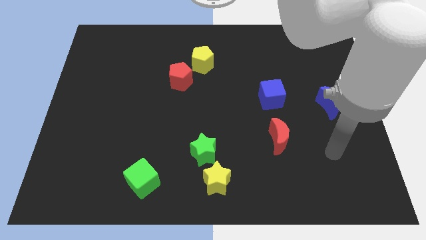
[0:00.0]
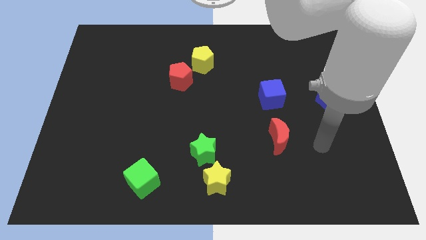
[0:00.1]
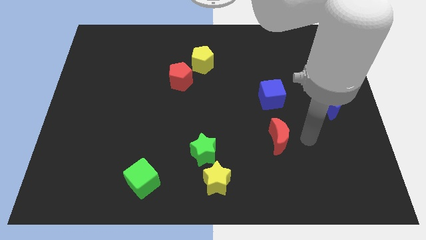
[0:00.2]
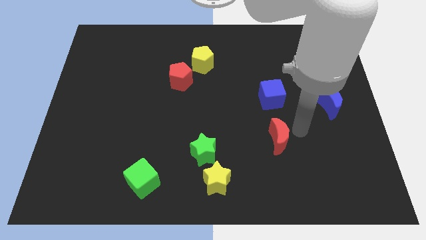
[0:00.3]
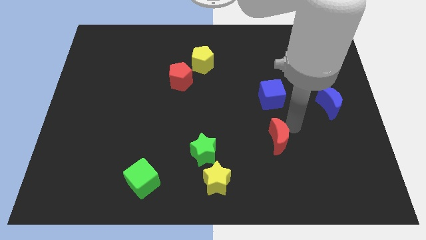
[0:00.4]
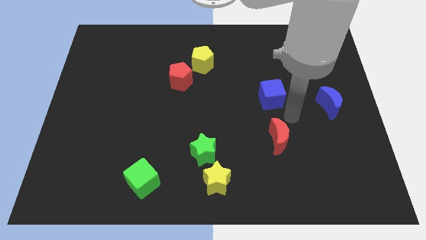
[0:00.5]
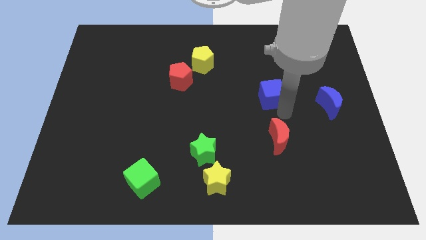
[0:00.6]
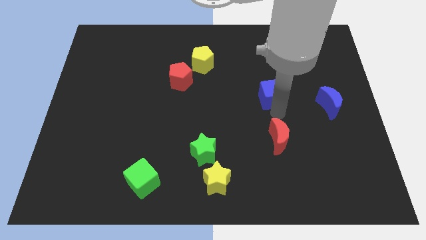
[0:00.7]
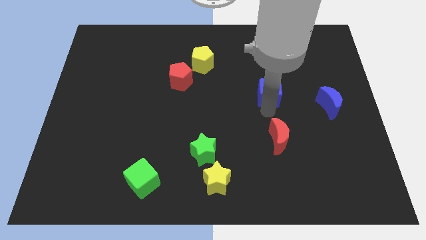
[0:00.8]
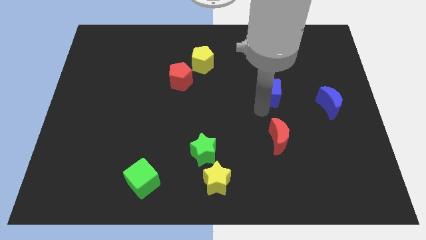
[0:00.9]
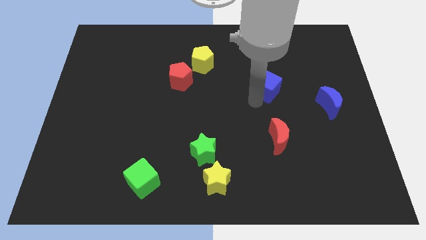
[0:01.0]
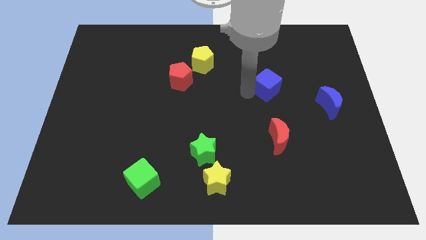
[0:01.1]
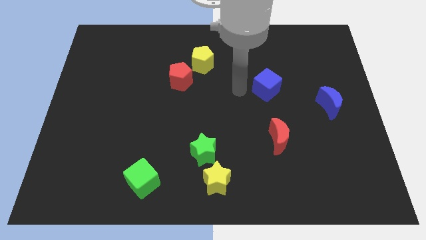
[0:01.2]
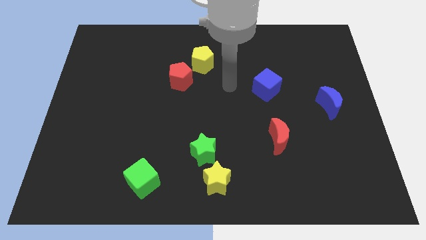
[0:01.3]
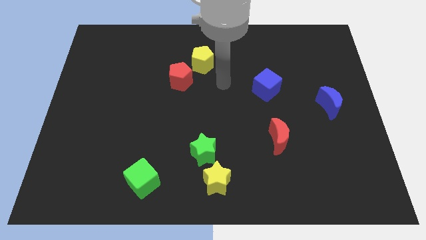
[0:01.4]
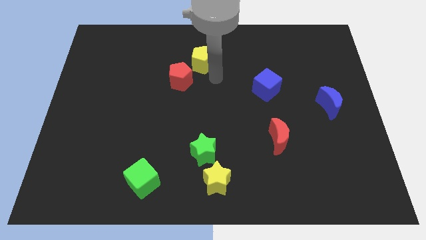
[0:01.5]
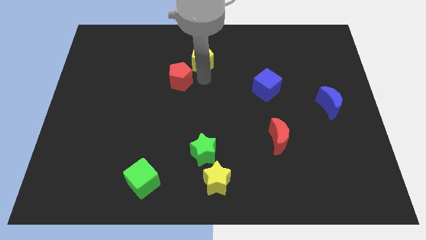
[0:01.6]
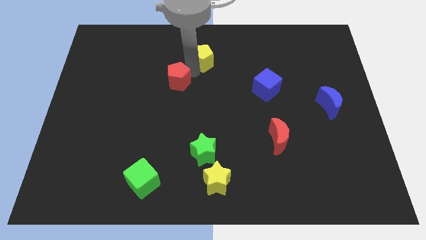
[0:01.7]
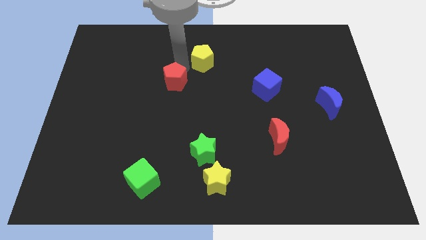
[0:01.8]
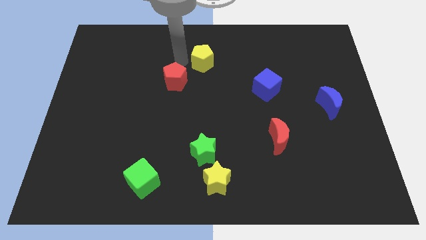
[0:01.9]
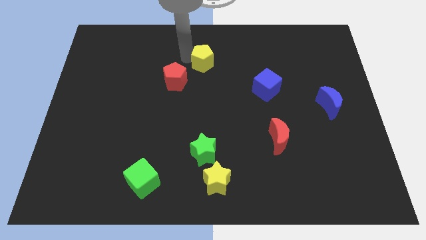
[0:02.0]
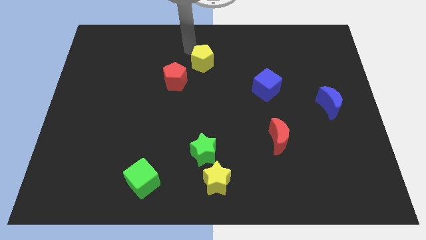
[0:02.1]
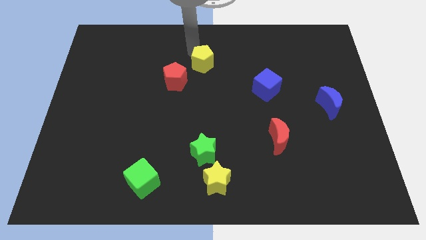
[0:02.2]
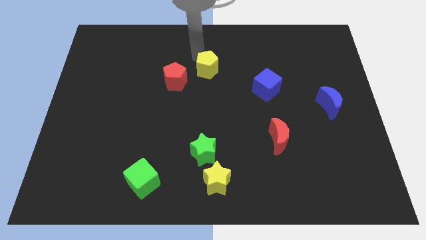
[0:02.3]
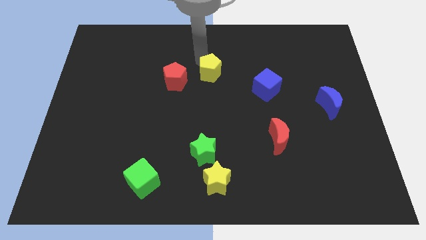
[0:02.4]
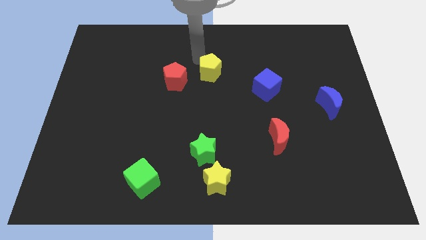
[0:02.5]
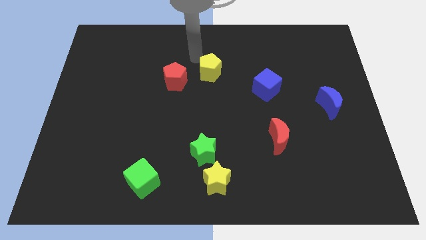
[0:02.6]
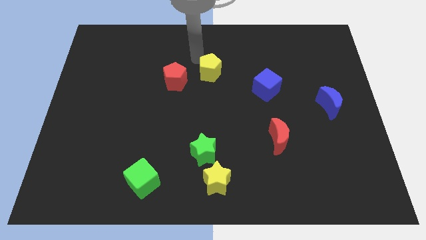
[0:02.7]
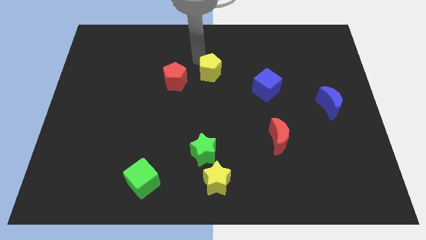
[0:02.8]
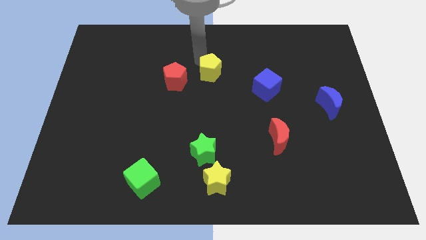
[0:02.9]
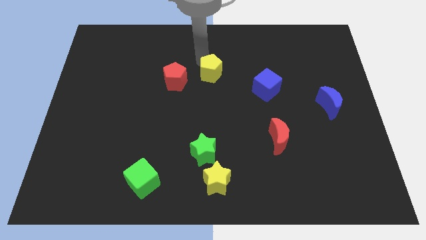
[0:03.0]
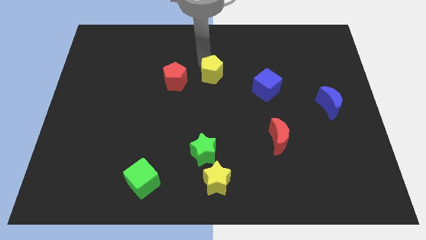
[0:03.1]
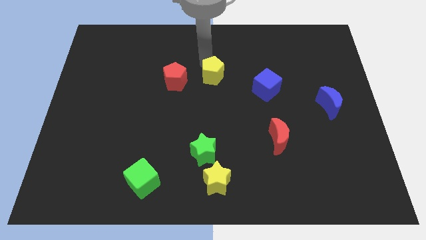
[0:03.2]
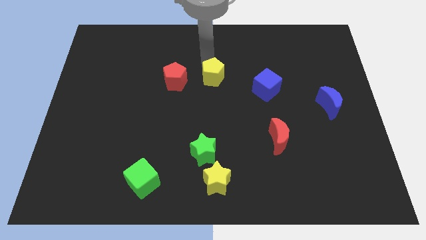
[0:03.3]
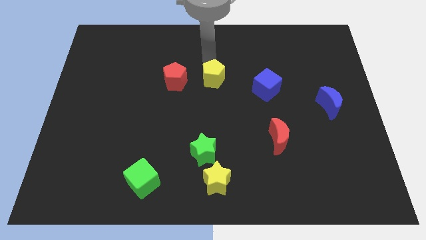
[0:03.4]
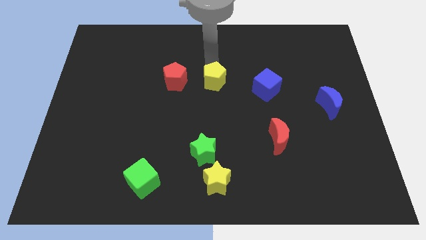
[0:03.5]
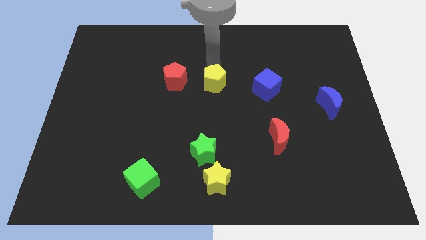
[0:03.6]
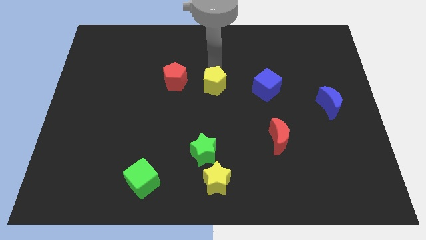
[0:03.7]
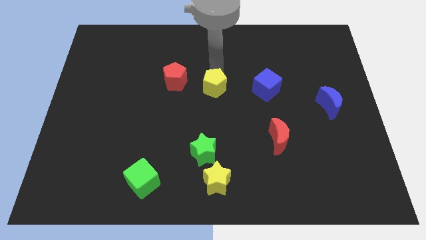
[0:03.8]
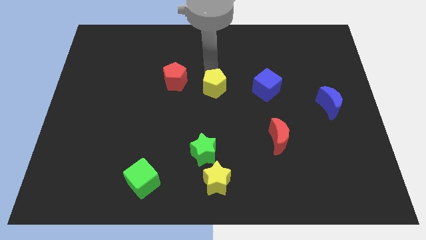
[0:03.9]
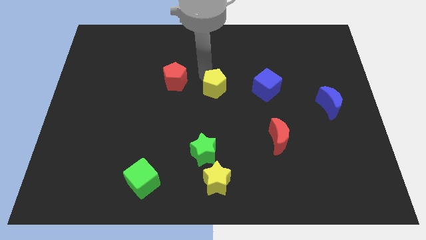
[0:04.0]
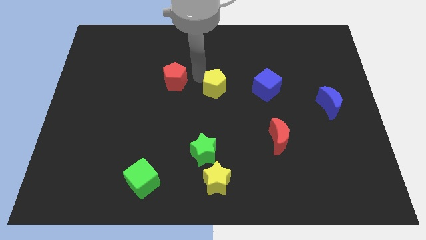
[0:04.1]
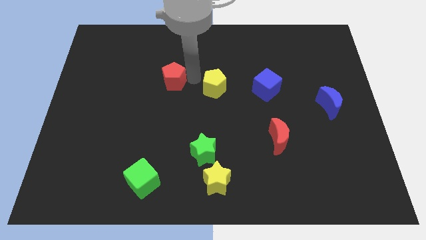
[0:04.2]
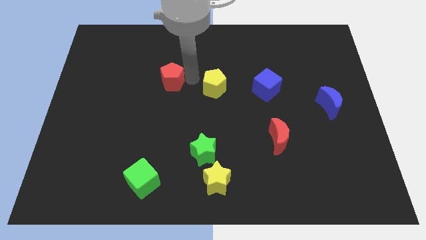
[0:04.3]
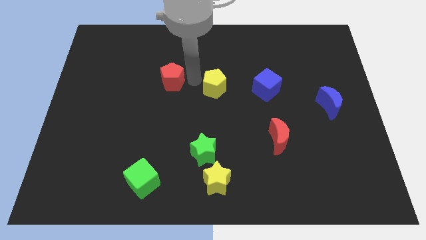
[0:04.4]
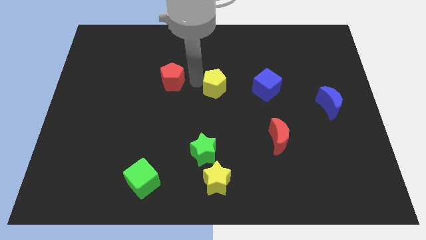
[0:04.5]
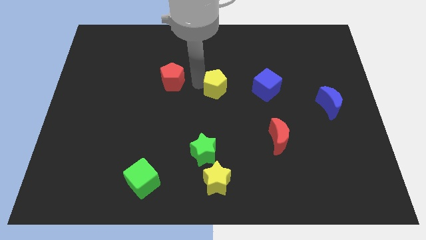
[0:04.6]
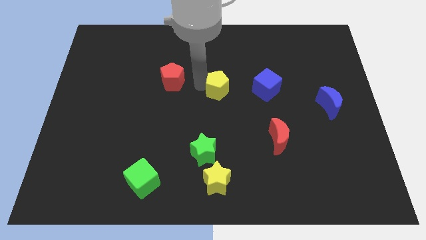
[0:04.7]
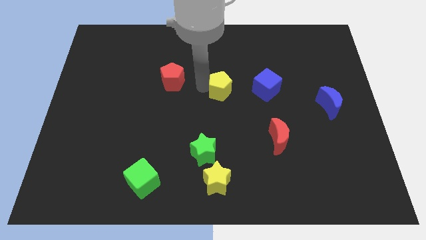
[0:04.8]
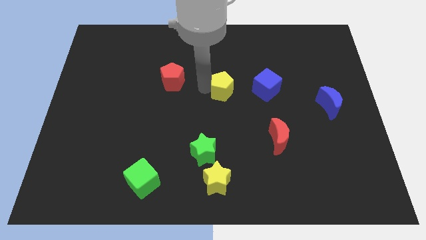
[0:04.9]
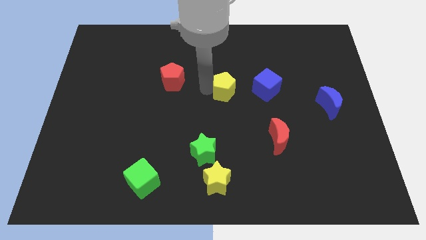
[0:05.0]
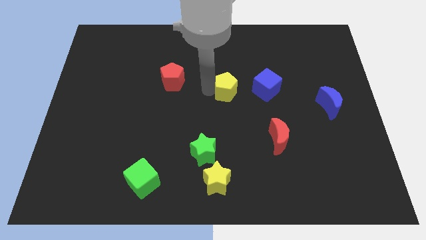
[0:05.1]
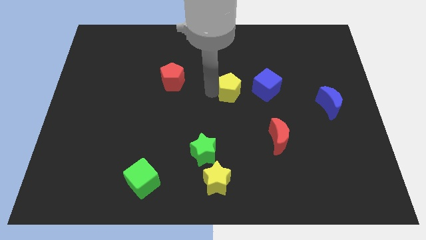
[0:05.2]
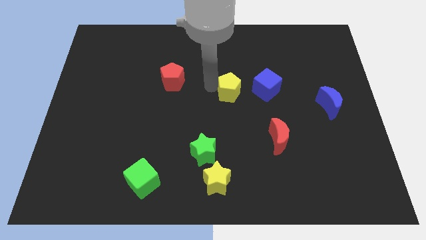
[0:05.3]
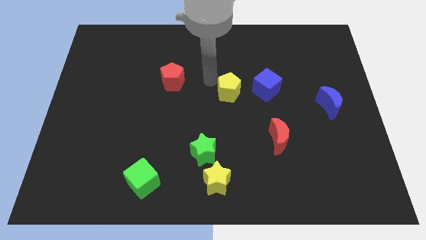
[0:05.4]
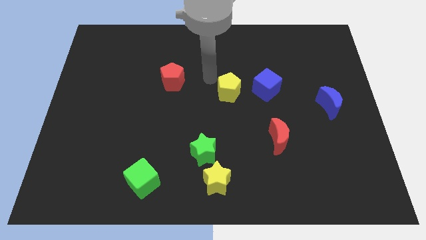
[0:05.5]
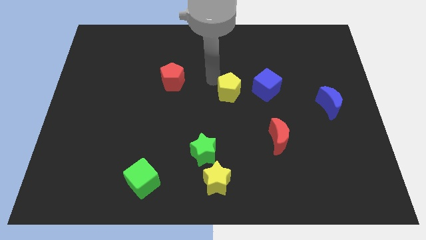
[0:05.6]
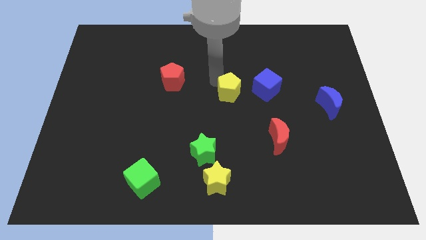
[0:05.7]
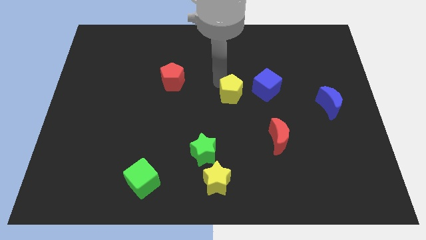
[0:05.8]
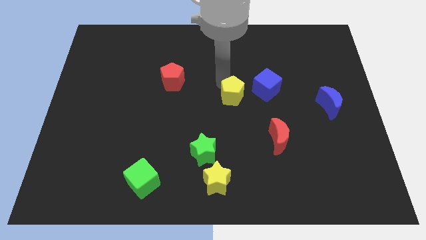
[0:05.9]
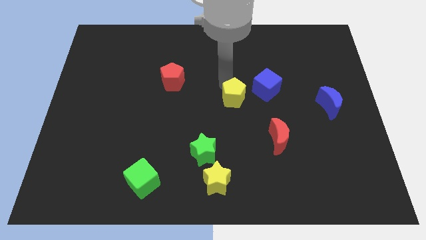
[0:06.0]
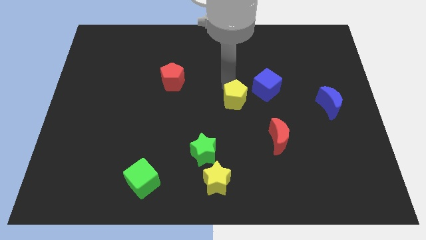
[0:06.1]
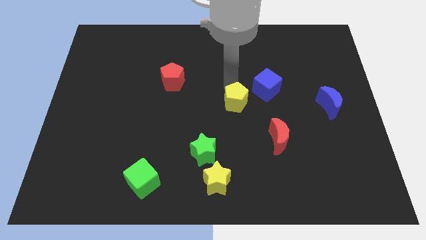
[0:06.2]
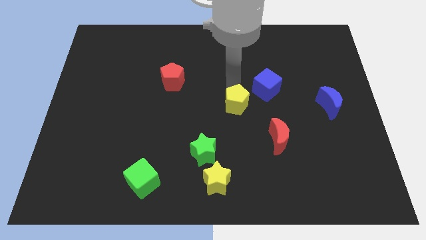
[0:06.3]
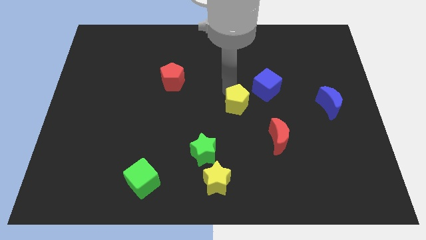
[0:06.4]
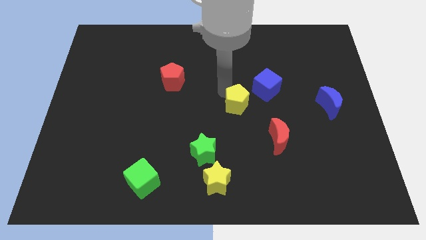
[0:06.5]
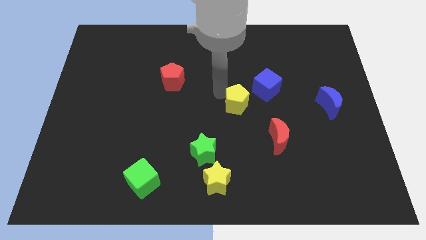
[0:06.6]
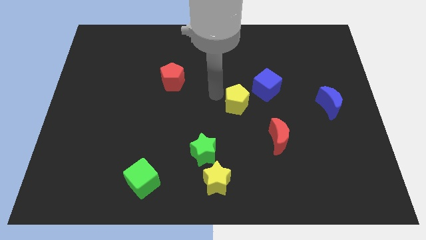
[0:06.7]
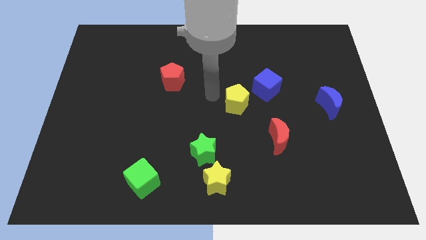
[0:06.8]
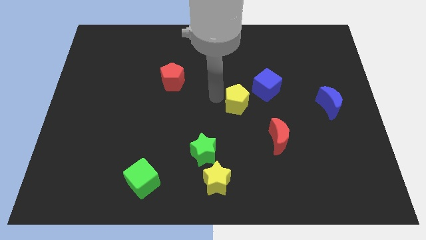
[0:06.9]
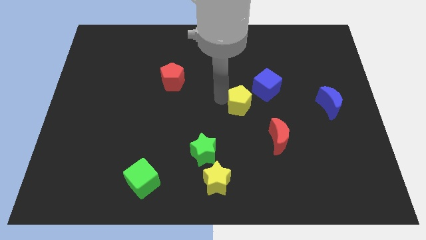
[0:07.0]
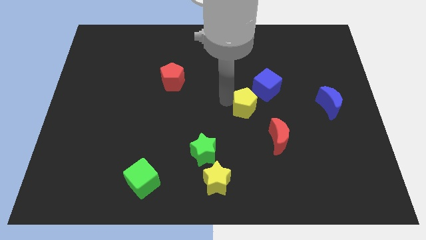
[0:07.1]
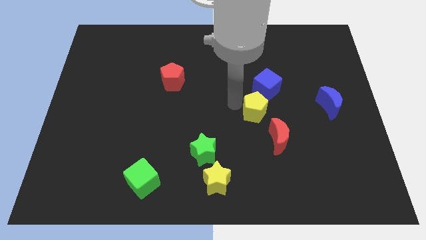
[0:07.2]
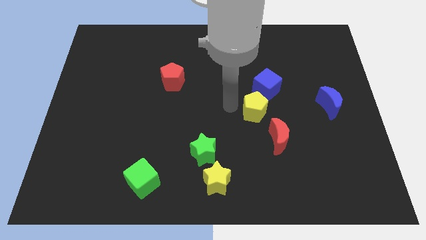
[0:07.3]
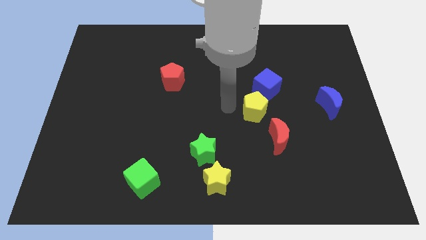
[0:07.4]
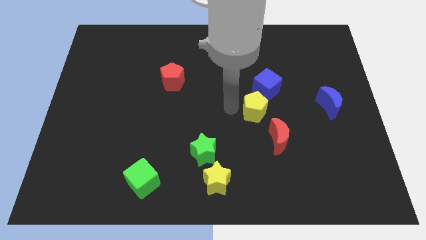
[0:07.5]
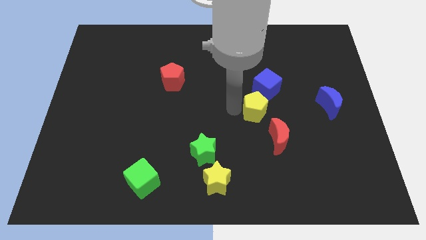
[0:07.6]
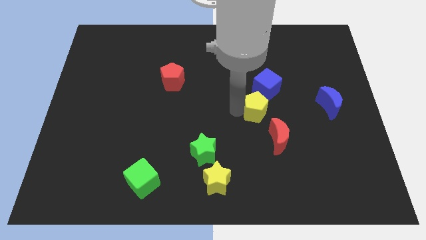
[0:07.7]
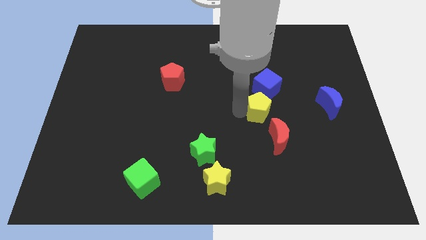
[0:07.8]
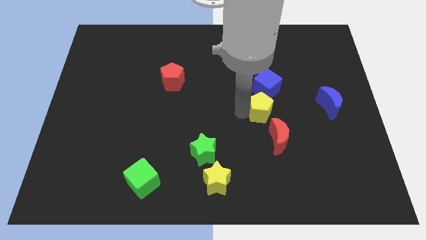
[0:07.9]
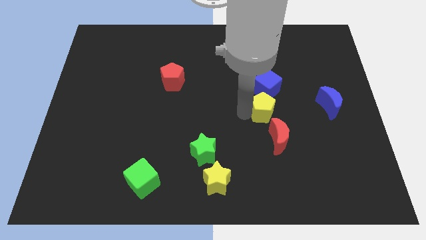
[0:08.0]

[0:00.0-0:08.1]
put the yellow pentagon just left of the blue moon
